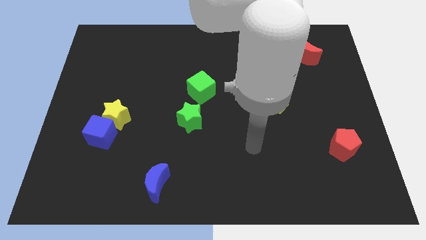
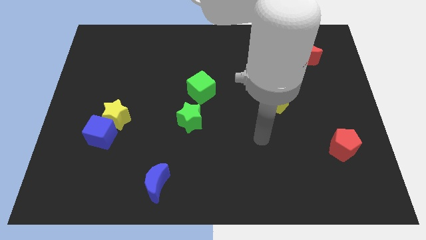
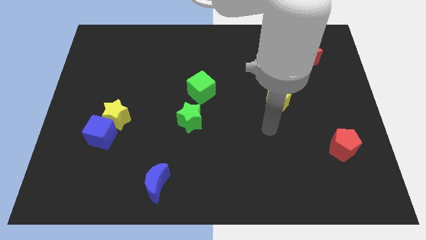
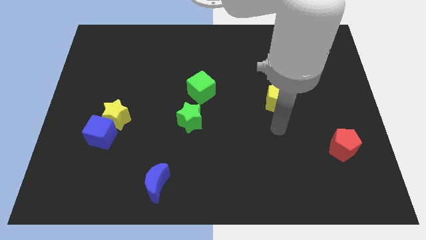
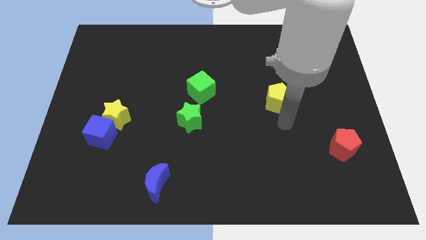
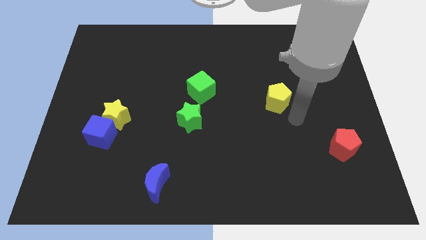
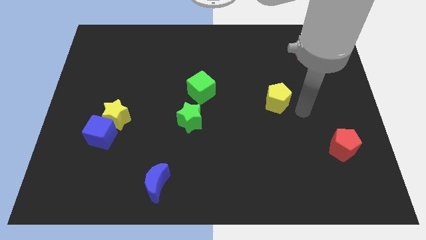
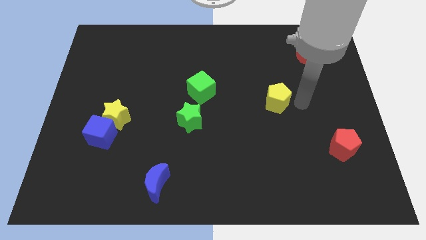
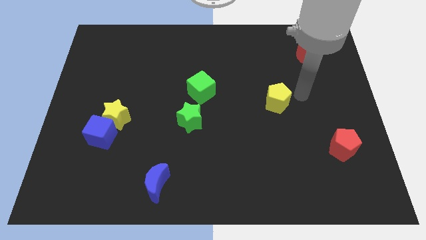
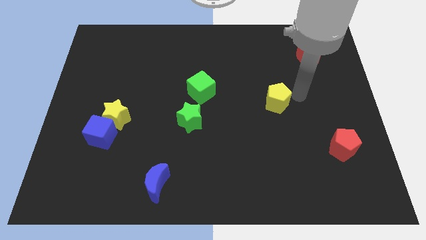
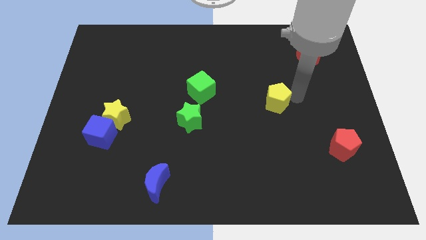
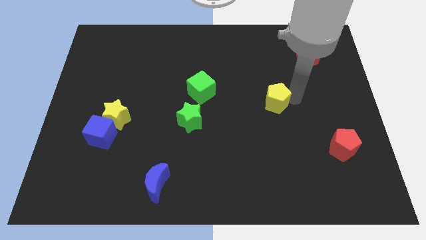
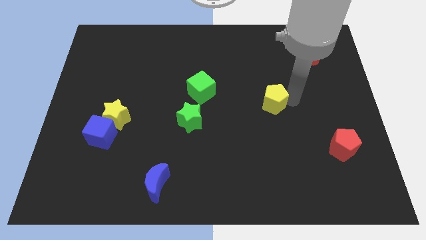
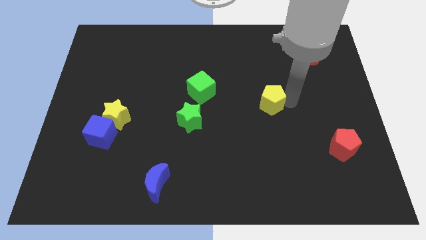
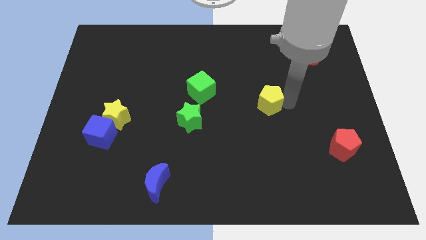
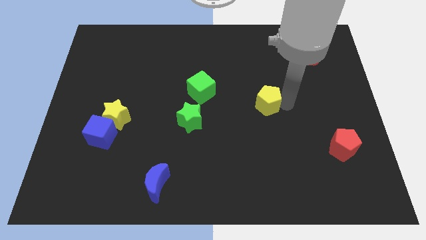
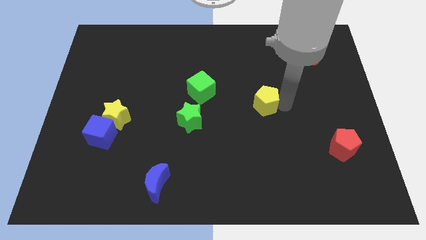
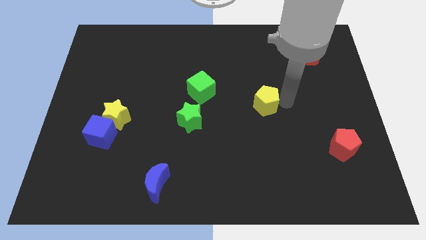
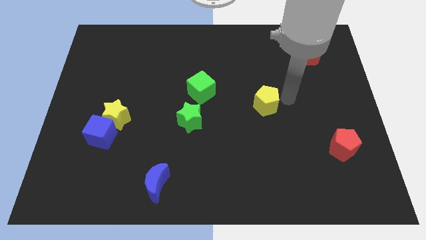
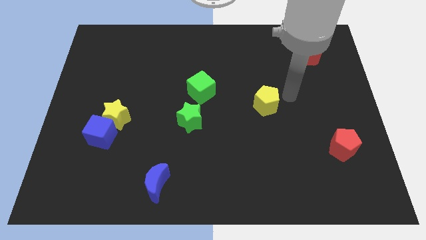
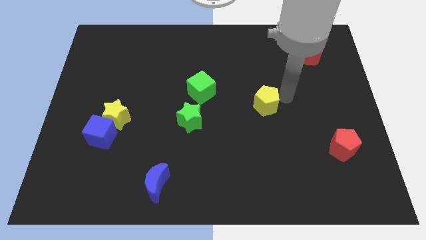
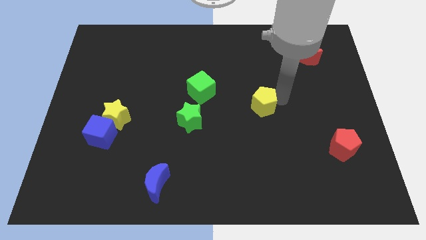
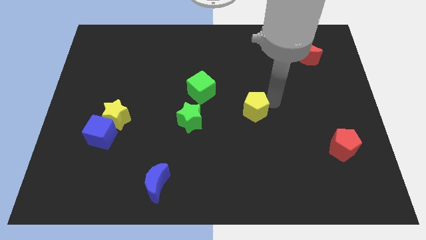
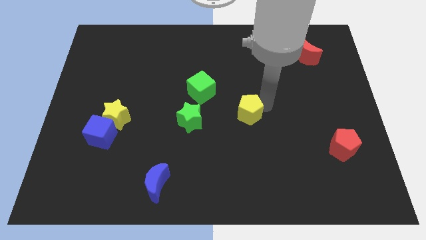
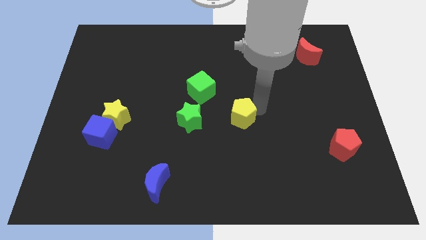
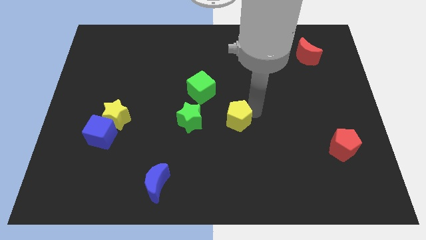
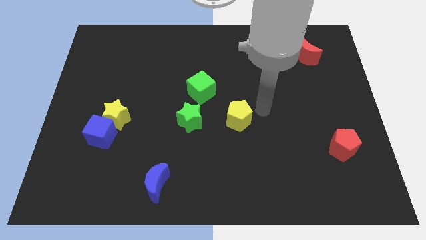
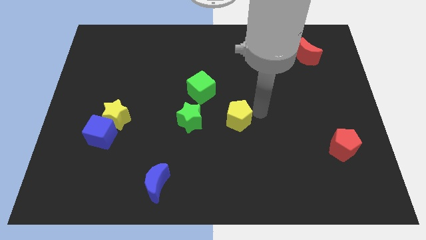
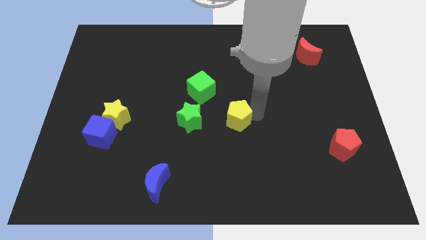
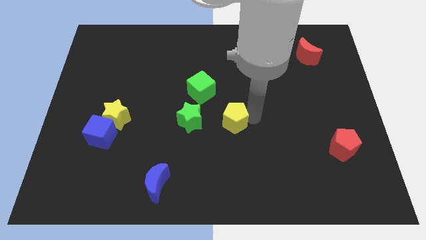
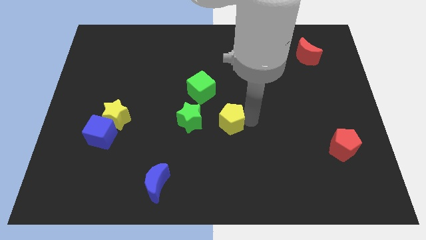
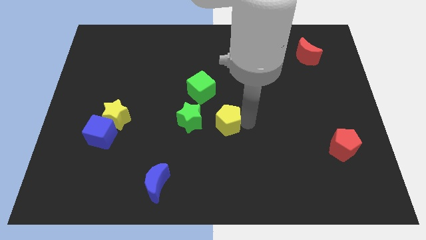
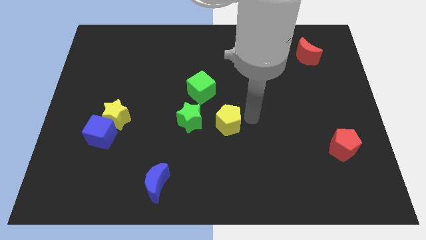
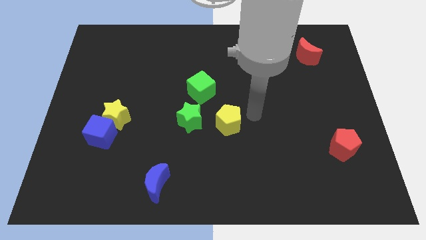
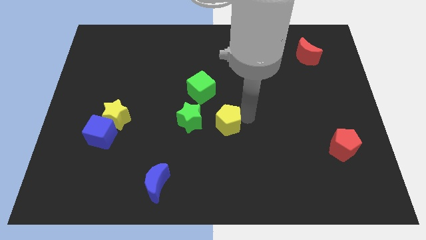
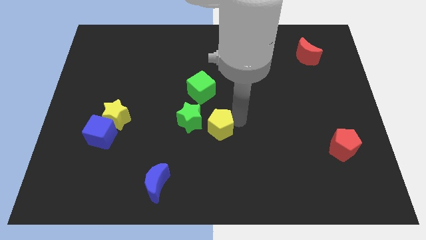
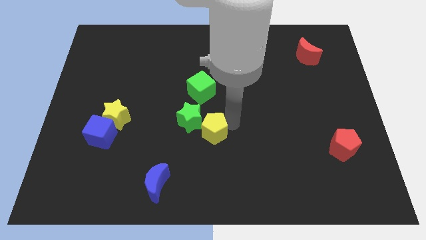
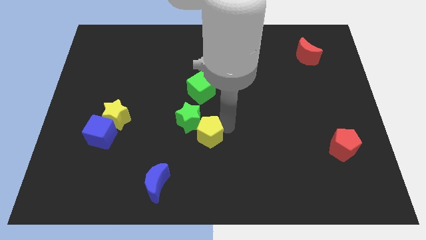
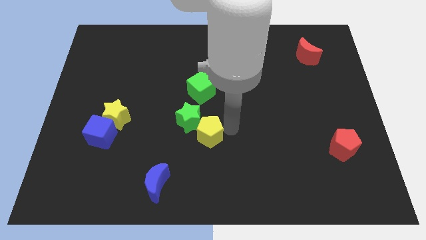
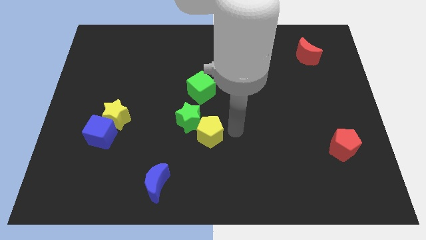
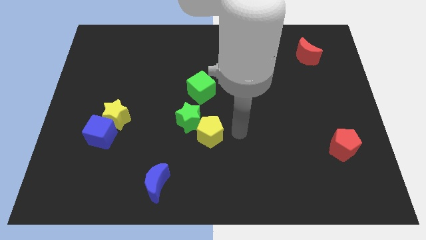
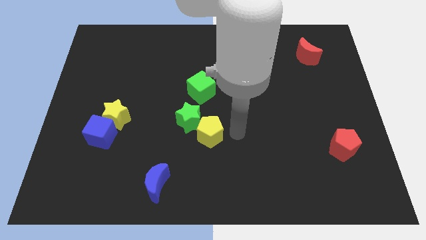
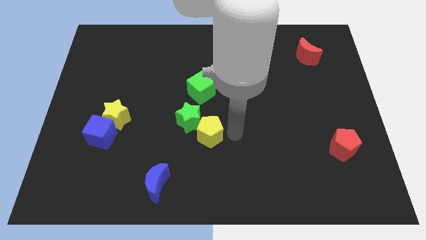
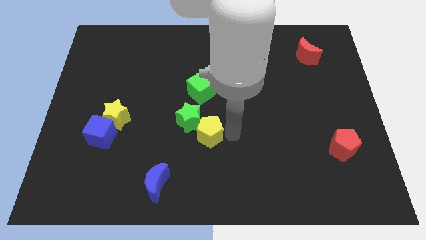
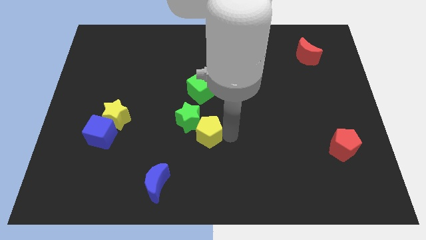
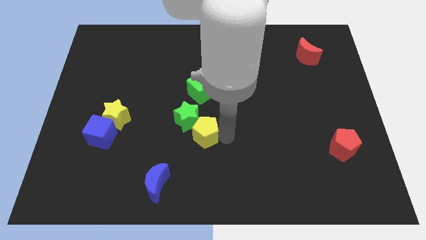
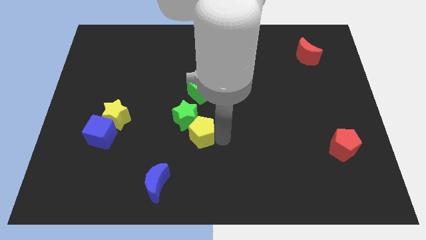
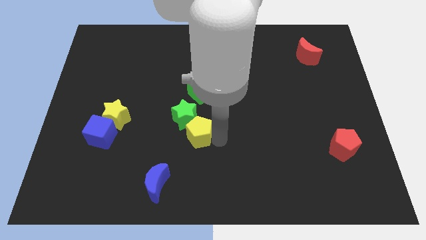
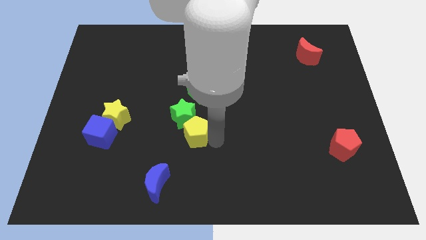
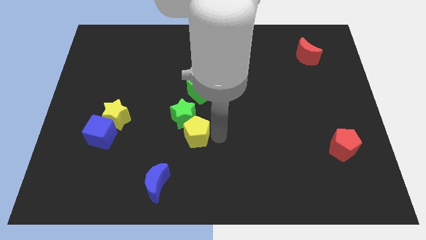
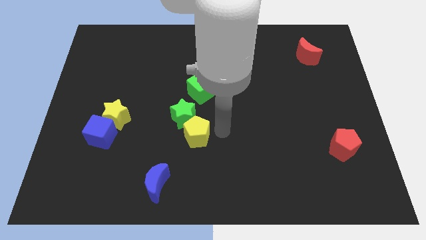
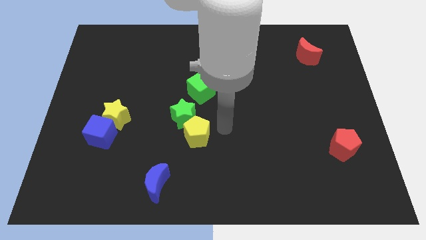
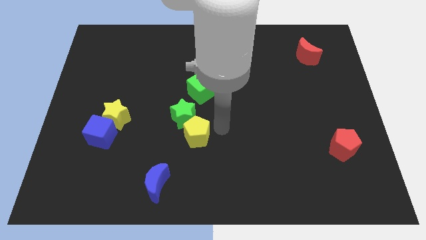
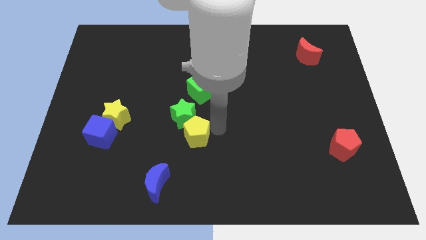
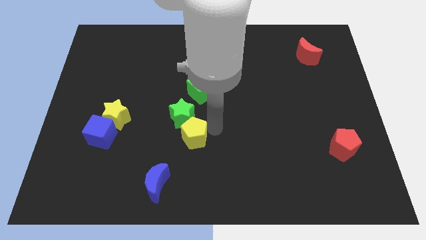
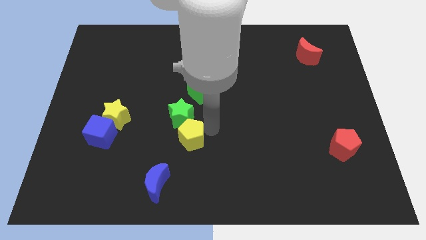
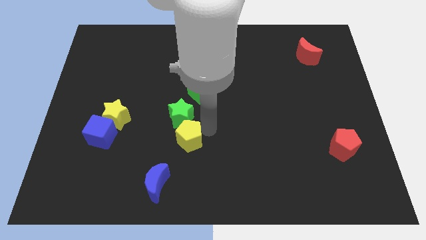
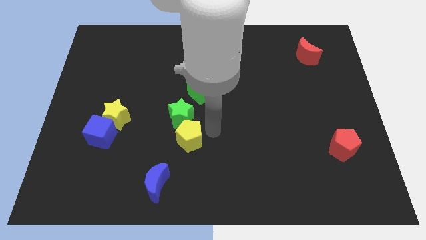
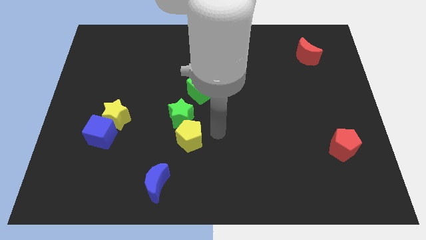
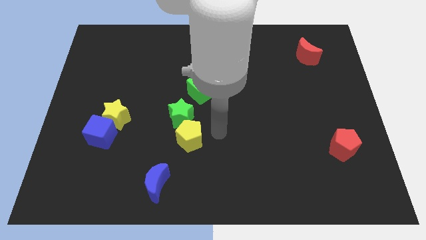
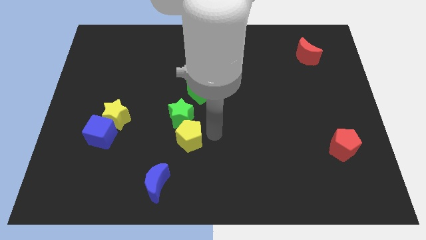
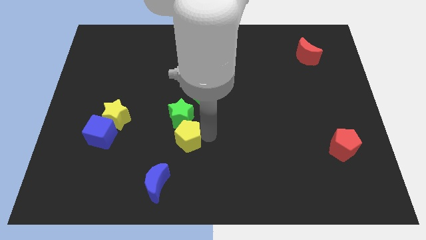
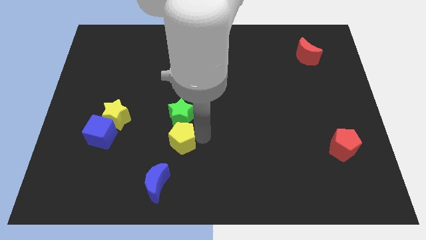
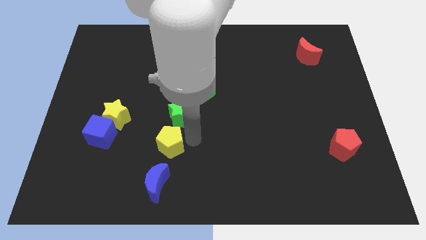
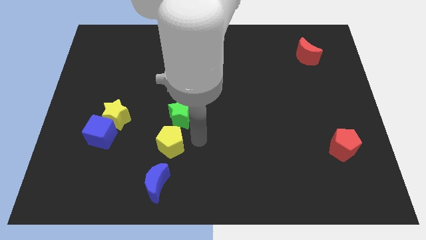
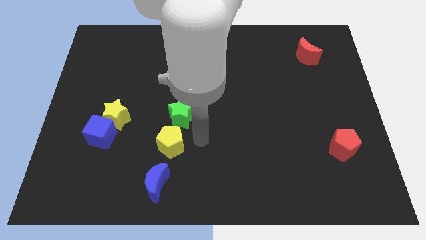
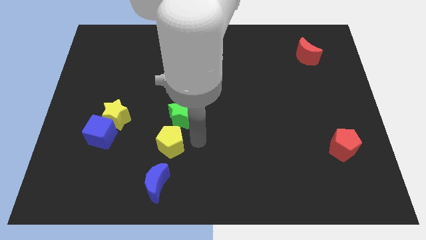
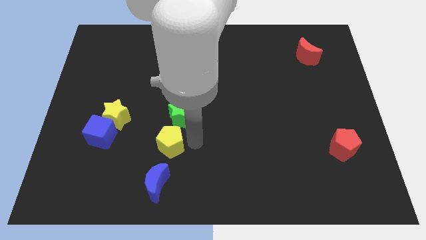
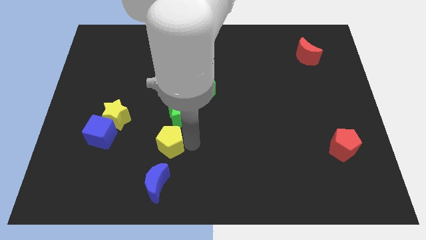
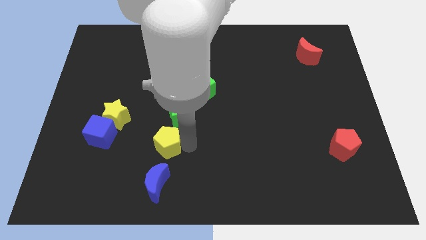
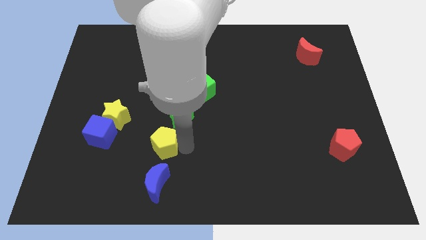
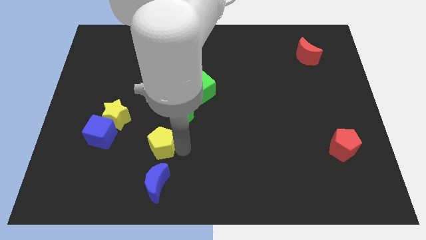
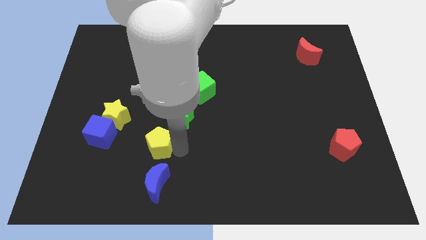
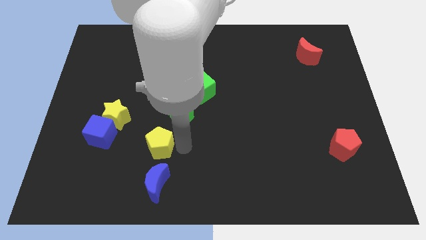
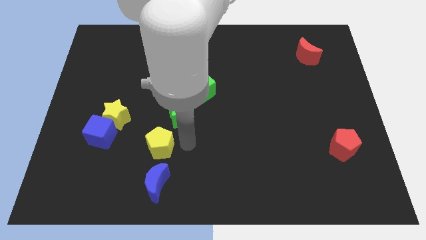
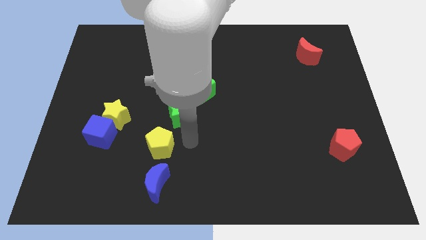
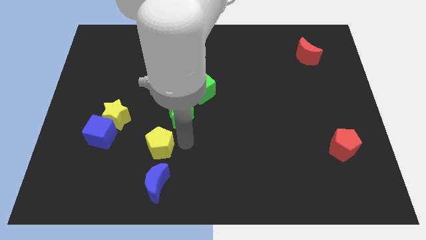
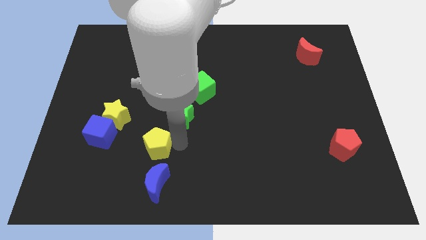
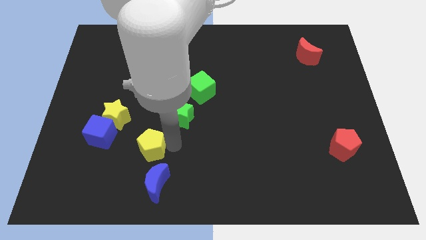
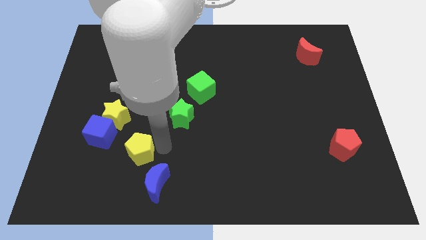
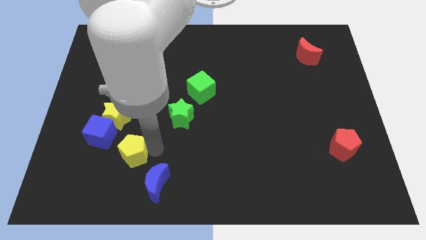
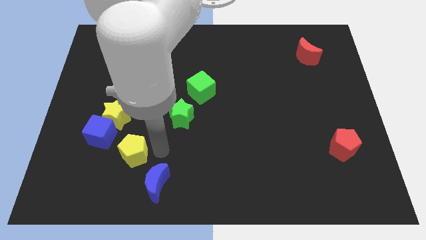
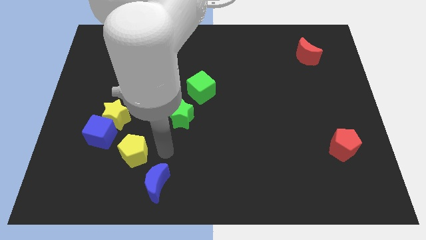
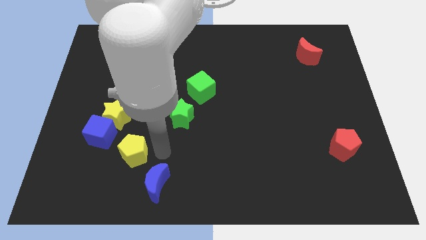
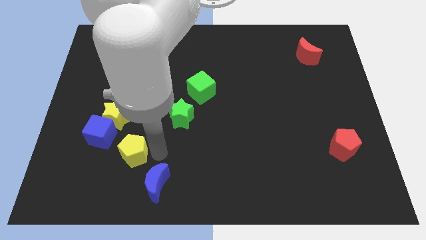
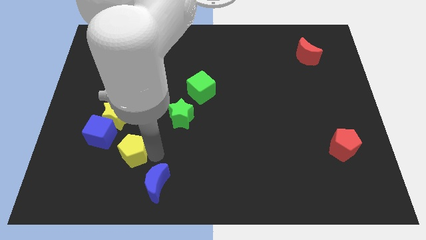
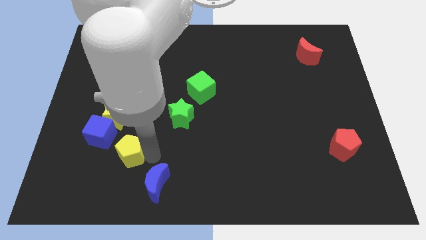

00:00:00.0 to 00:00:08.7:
push the yellow pentagon below the yellow star
